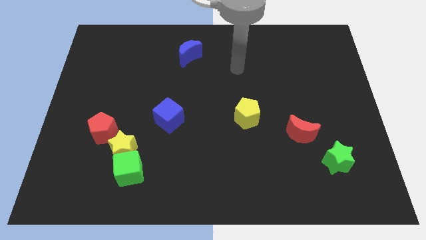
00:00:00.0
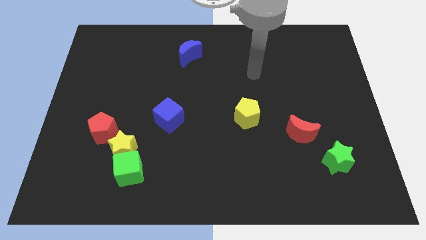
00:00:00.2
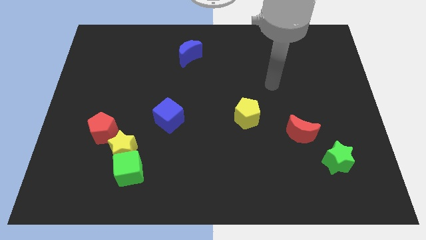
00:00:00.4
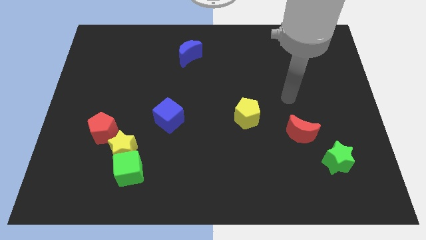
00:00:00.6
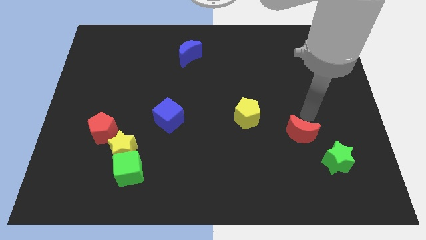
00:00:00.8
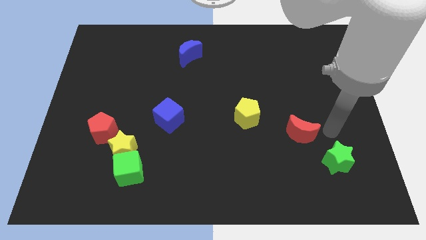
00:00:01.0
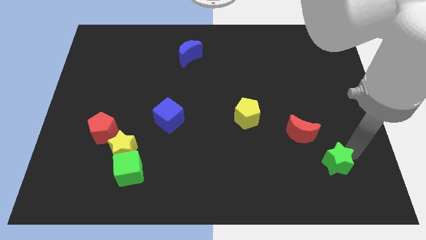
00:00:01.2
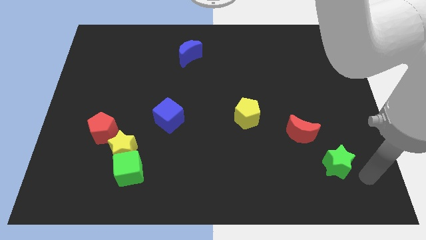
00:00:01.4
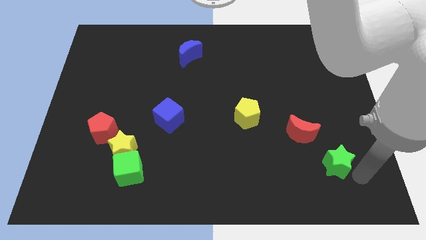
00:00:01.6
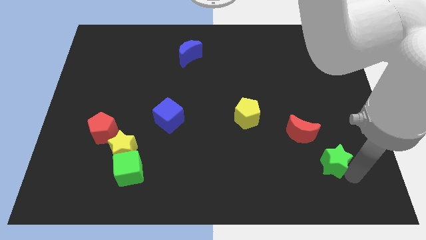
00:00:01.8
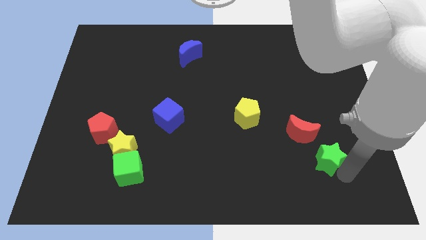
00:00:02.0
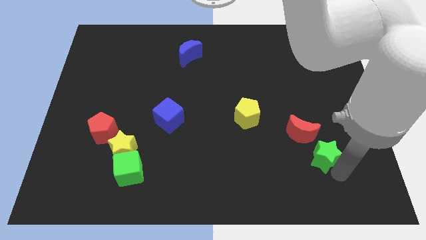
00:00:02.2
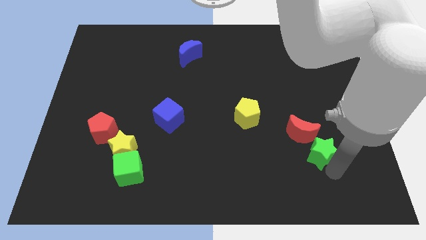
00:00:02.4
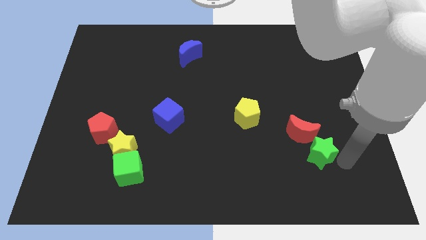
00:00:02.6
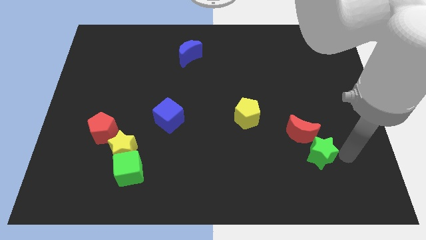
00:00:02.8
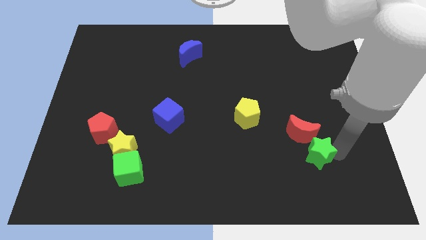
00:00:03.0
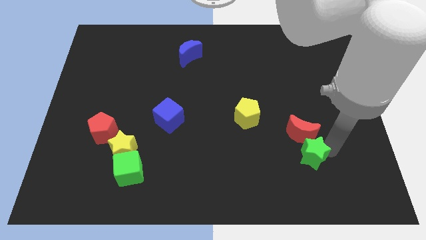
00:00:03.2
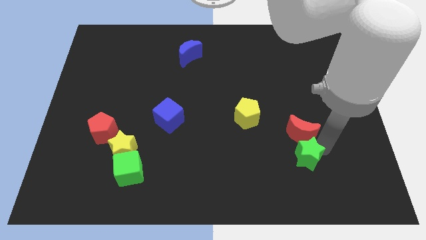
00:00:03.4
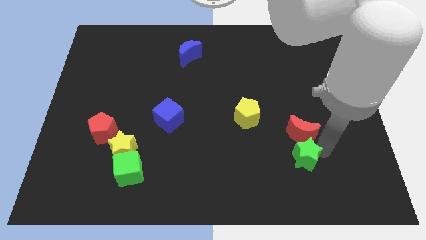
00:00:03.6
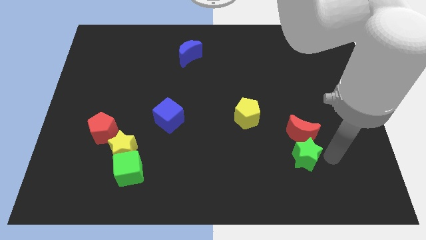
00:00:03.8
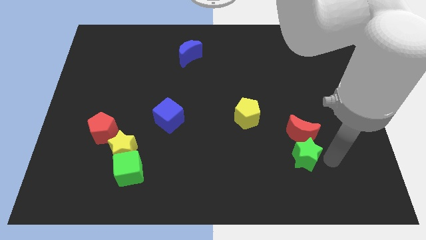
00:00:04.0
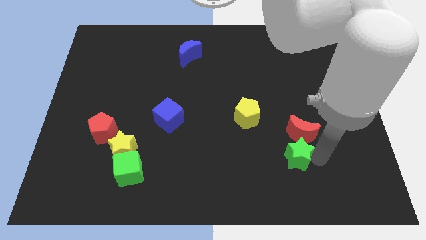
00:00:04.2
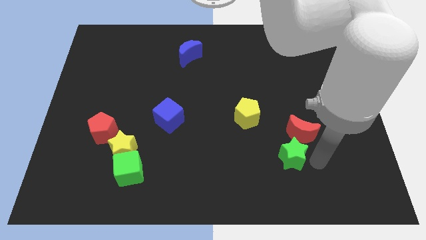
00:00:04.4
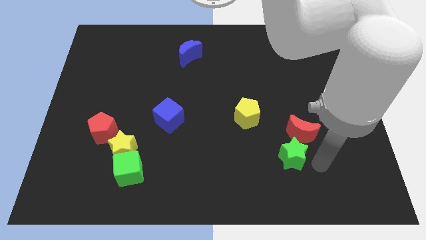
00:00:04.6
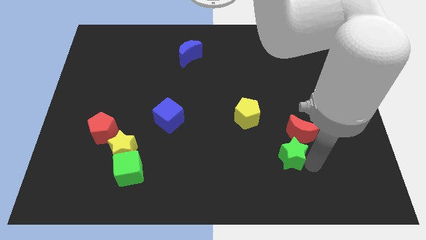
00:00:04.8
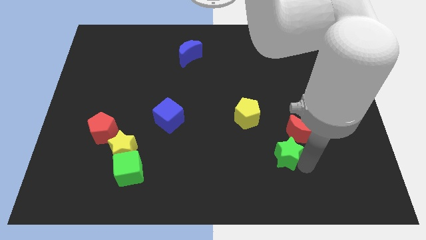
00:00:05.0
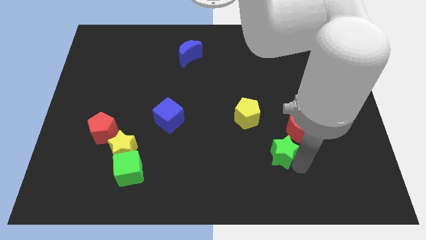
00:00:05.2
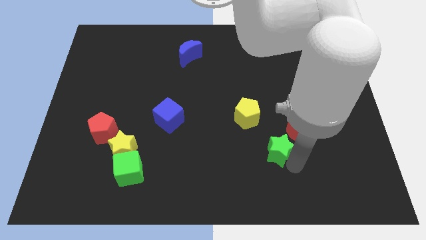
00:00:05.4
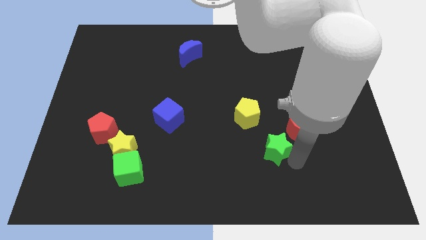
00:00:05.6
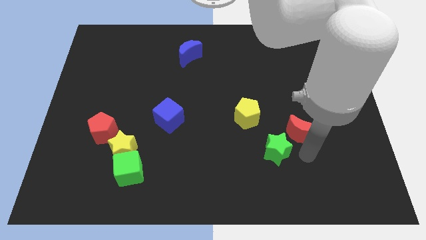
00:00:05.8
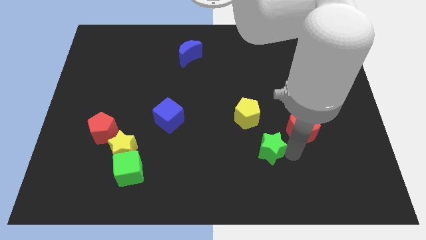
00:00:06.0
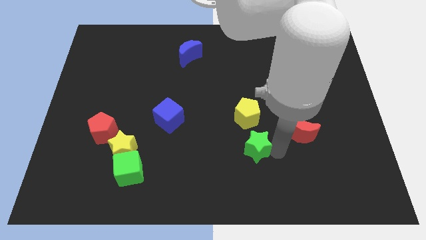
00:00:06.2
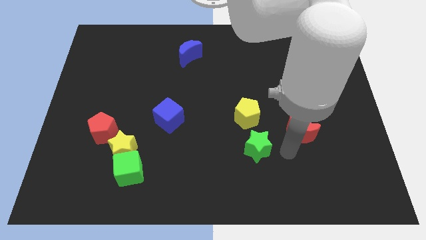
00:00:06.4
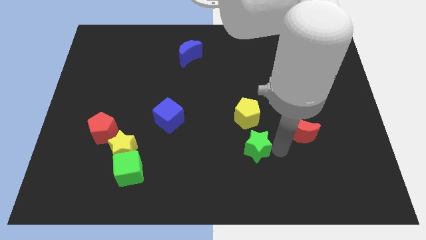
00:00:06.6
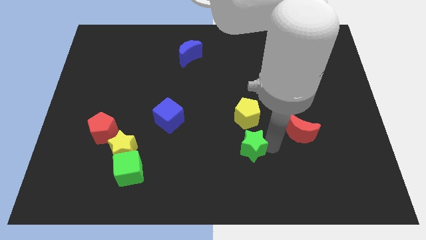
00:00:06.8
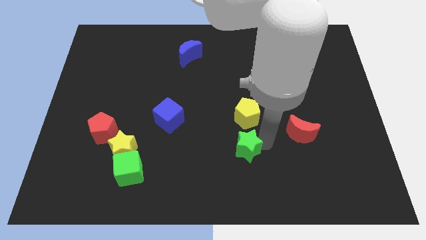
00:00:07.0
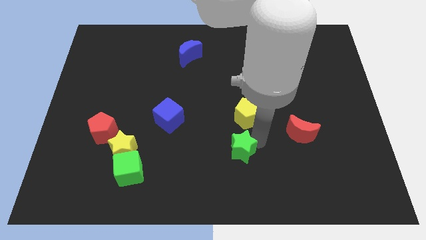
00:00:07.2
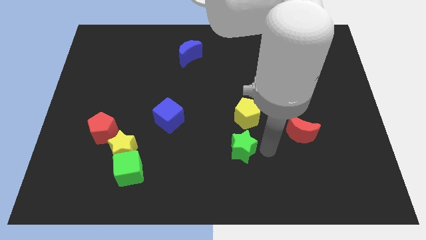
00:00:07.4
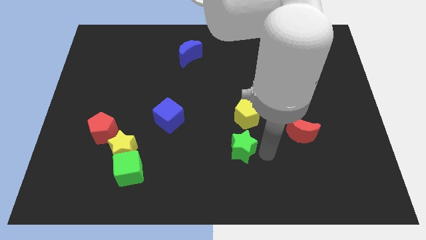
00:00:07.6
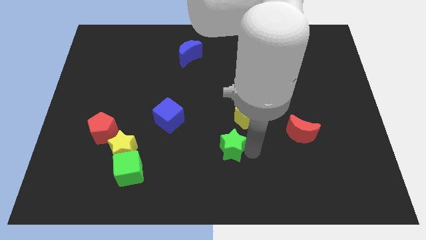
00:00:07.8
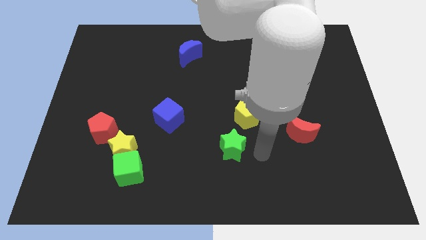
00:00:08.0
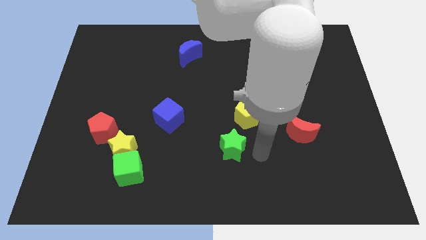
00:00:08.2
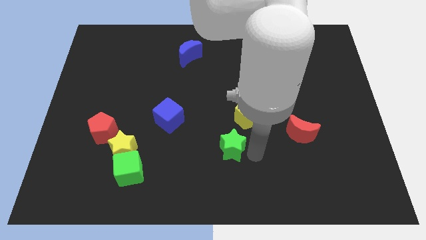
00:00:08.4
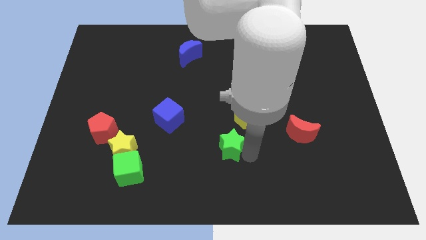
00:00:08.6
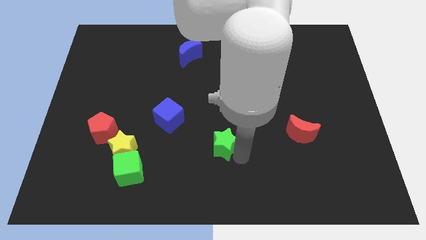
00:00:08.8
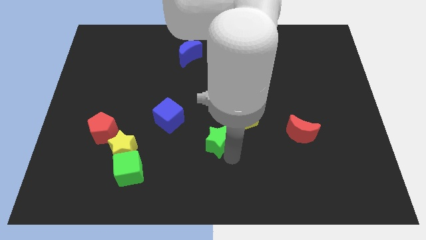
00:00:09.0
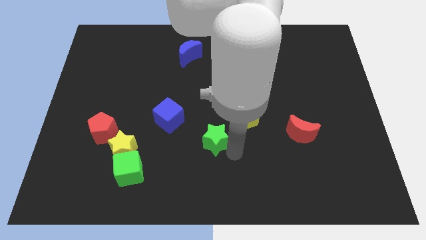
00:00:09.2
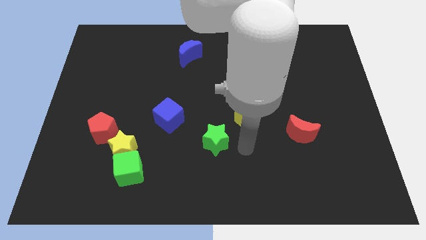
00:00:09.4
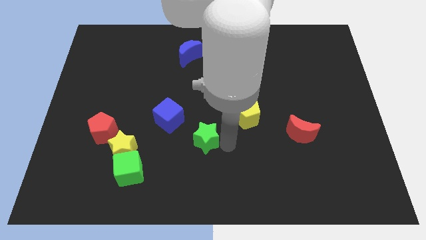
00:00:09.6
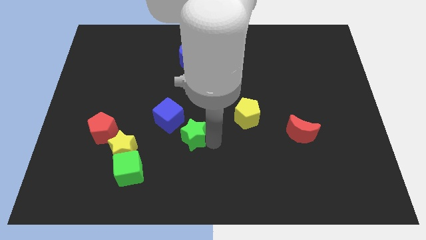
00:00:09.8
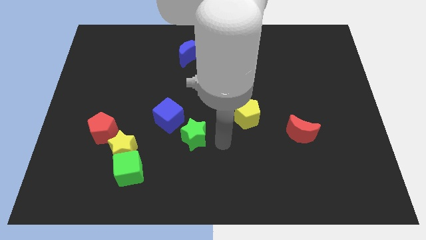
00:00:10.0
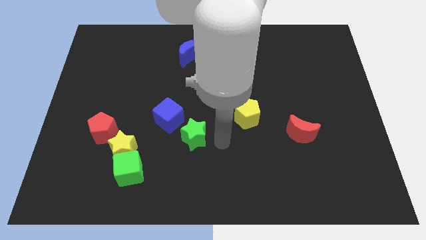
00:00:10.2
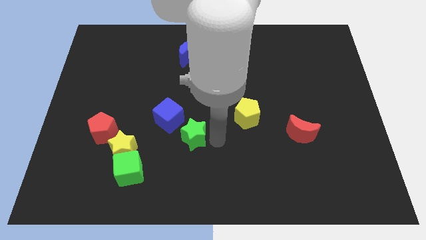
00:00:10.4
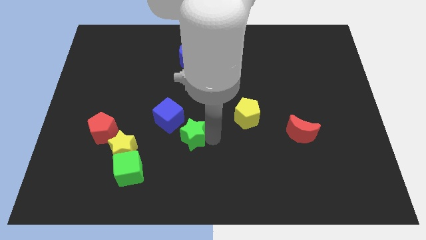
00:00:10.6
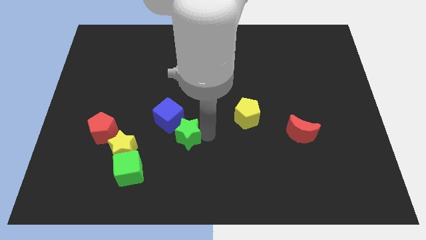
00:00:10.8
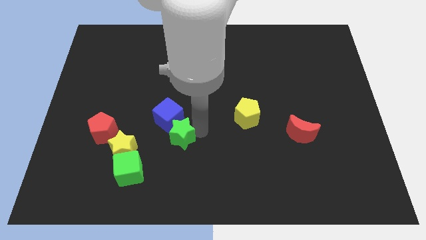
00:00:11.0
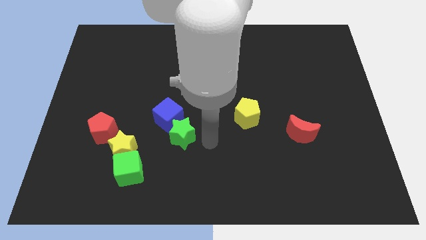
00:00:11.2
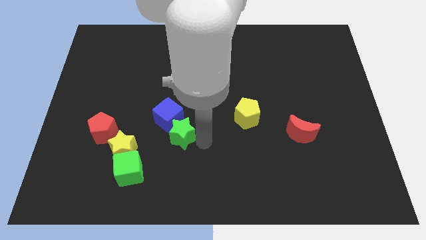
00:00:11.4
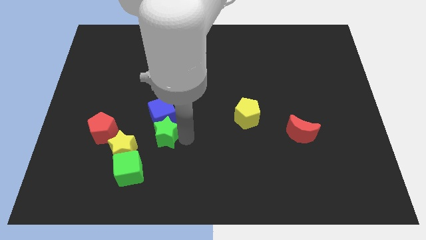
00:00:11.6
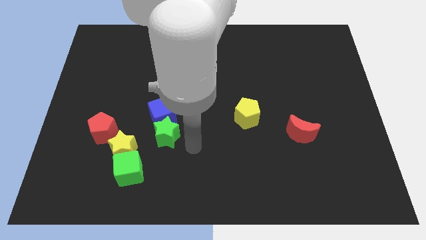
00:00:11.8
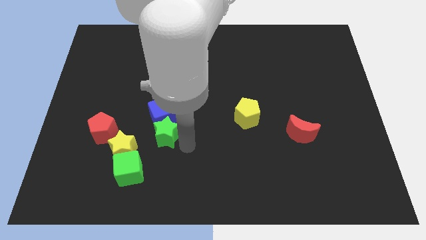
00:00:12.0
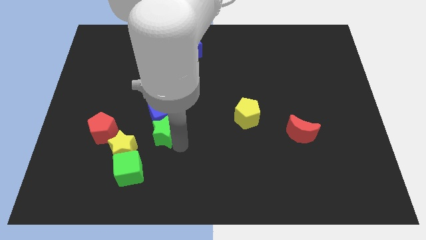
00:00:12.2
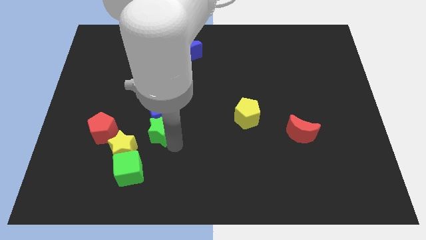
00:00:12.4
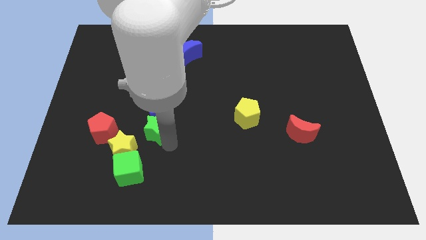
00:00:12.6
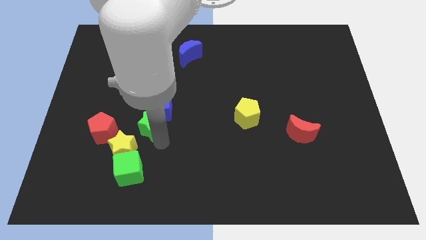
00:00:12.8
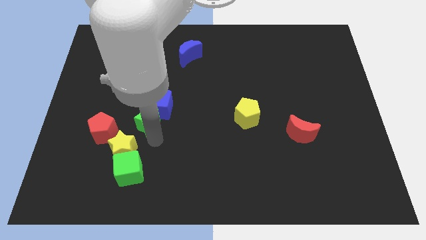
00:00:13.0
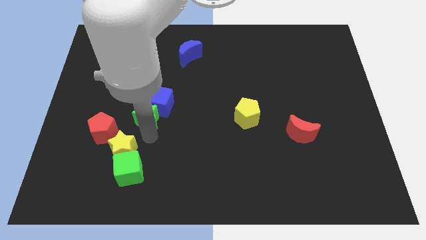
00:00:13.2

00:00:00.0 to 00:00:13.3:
slide the green star to the top right side of the red pentagon

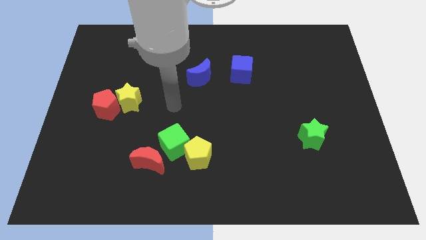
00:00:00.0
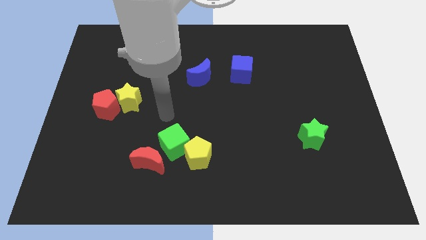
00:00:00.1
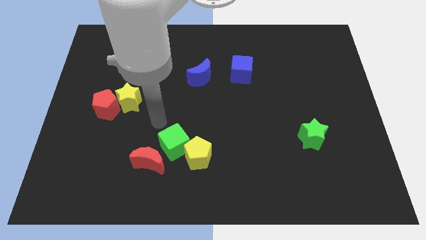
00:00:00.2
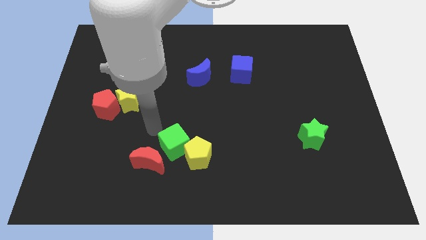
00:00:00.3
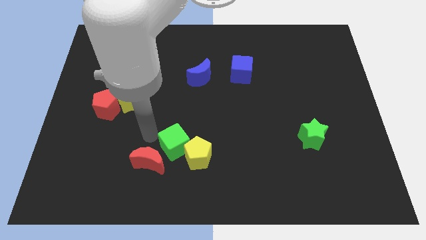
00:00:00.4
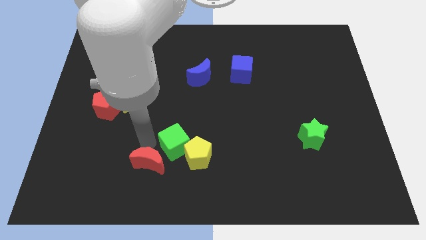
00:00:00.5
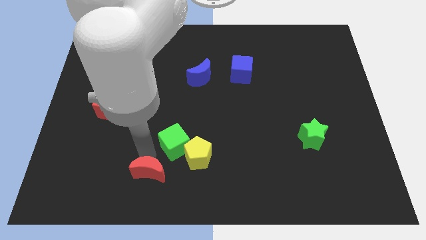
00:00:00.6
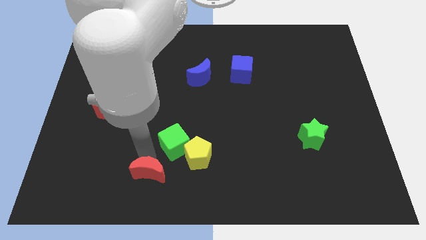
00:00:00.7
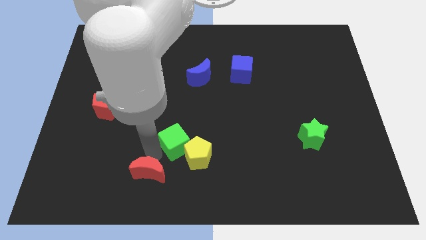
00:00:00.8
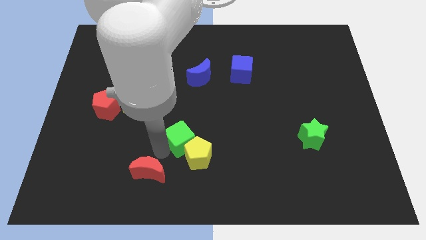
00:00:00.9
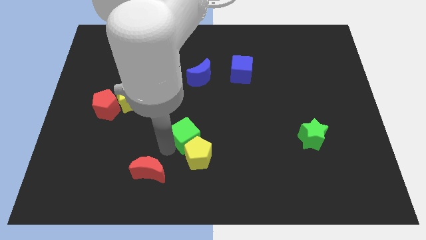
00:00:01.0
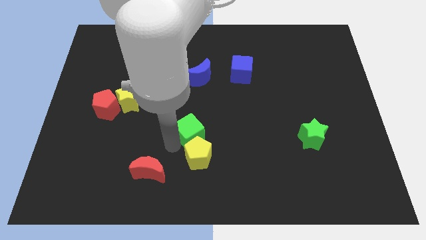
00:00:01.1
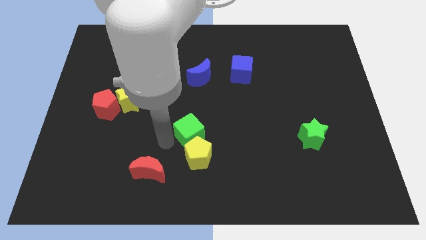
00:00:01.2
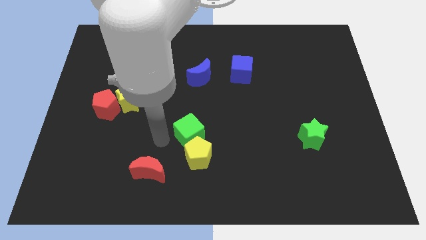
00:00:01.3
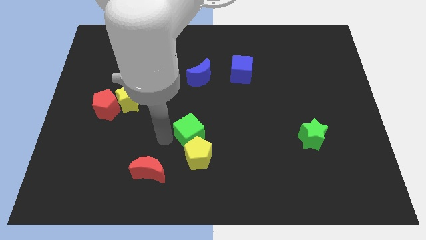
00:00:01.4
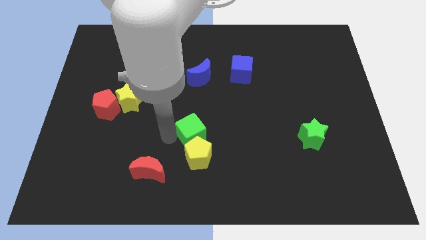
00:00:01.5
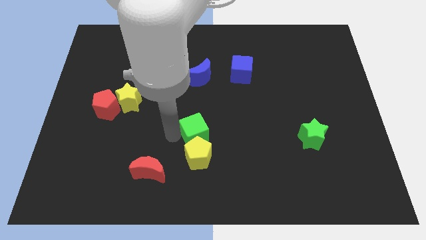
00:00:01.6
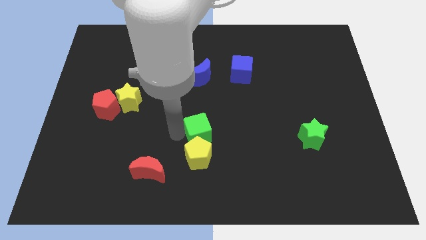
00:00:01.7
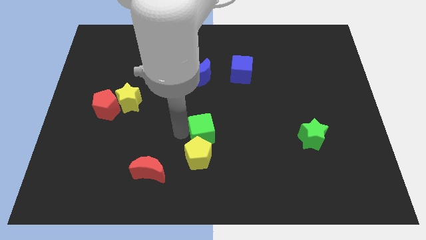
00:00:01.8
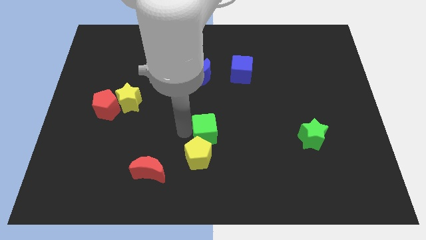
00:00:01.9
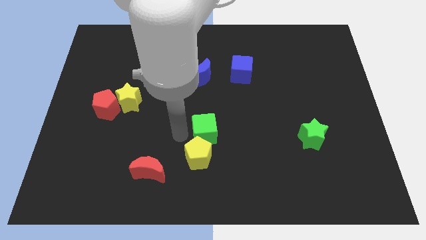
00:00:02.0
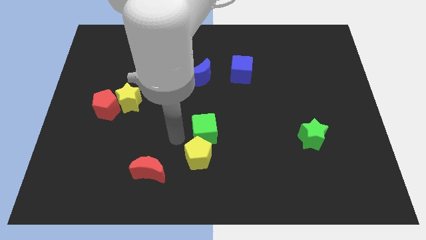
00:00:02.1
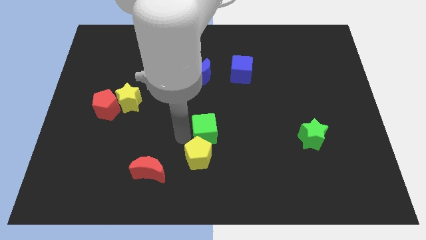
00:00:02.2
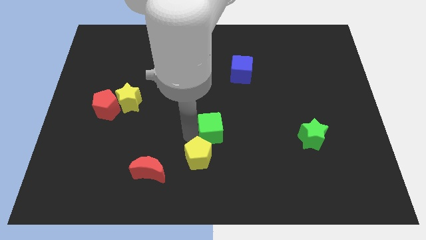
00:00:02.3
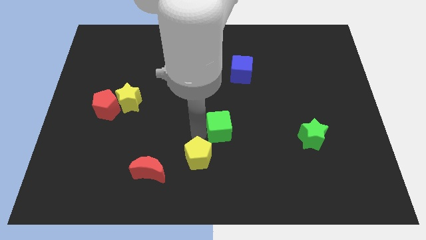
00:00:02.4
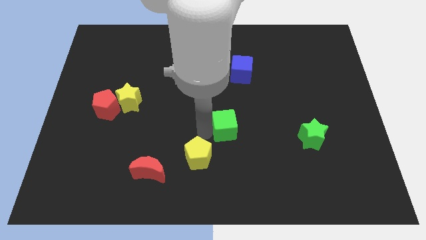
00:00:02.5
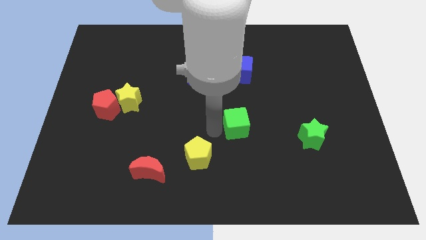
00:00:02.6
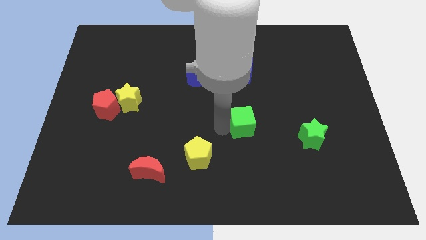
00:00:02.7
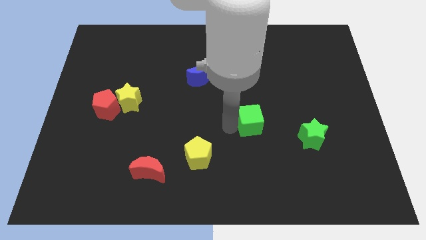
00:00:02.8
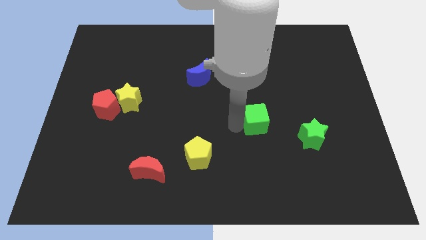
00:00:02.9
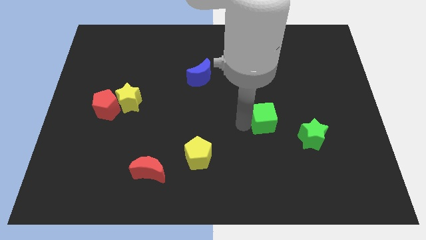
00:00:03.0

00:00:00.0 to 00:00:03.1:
put the green cube to the top left side of the green star
